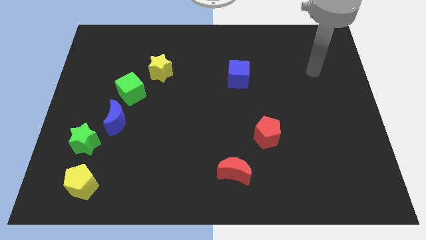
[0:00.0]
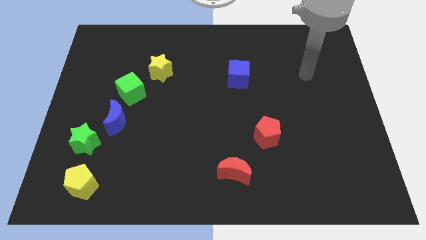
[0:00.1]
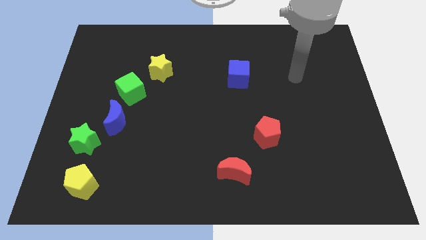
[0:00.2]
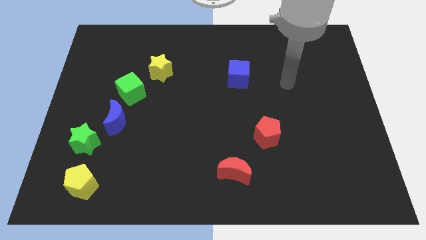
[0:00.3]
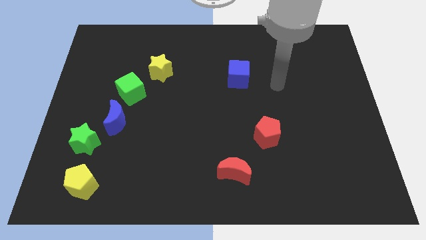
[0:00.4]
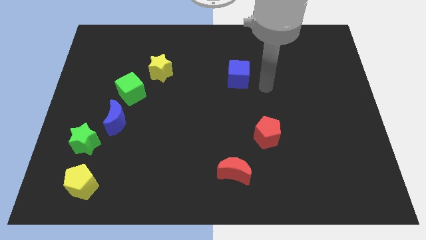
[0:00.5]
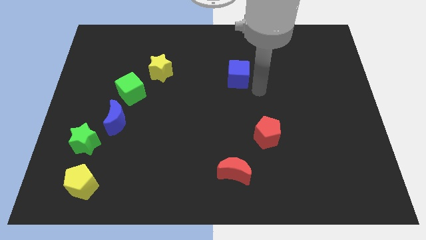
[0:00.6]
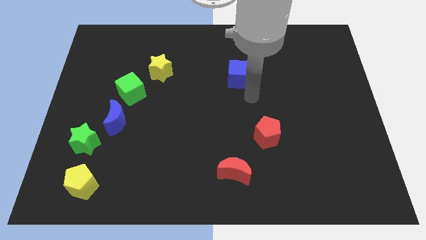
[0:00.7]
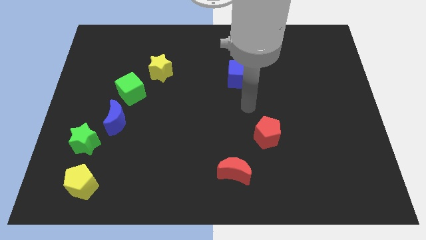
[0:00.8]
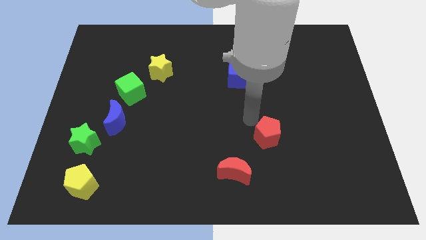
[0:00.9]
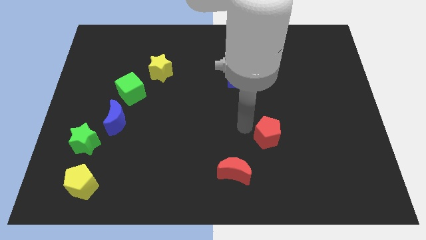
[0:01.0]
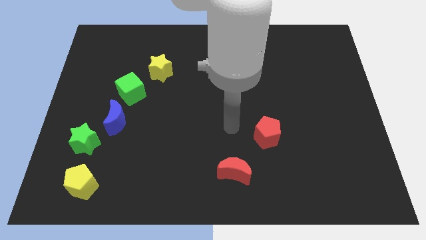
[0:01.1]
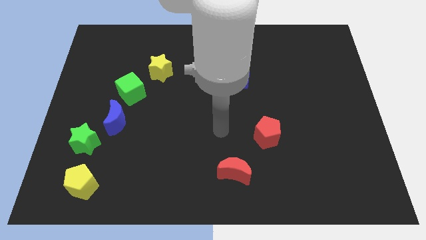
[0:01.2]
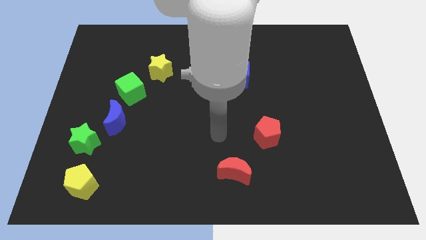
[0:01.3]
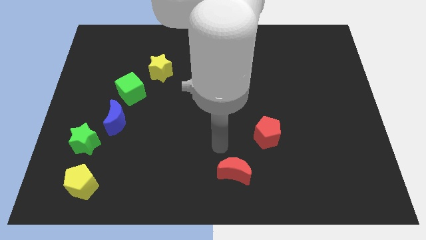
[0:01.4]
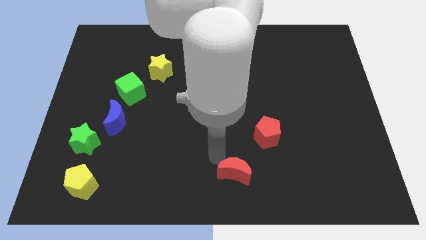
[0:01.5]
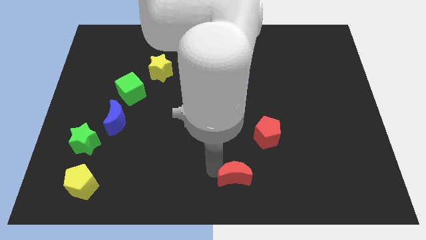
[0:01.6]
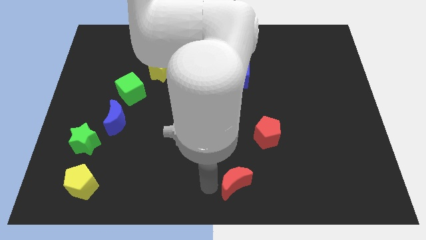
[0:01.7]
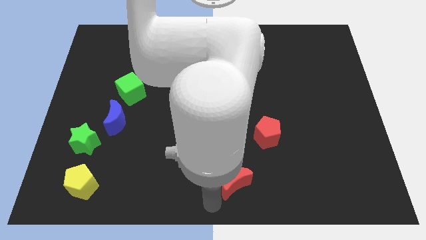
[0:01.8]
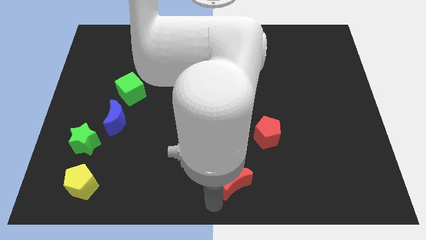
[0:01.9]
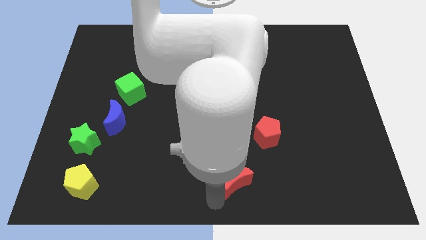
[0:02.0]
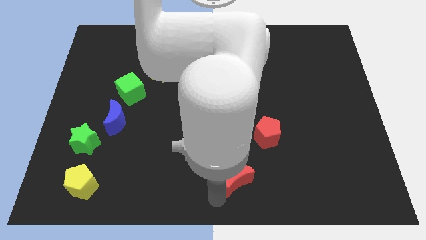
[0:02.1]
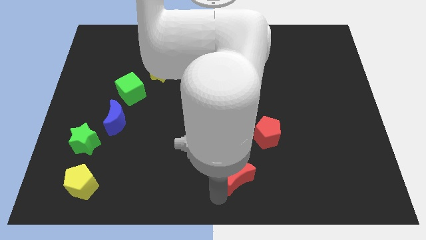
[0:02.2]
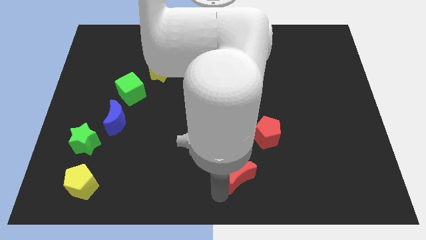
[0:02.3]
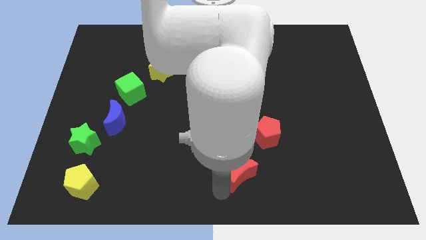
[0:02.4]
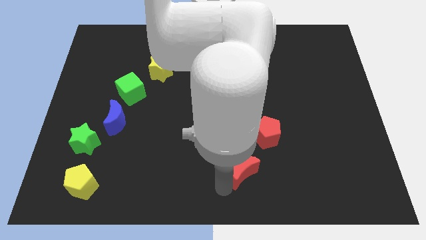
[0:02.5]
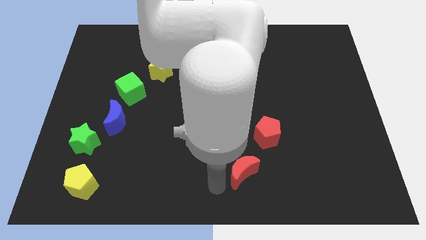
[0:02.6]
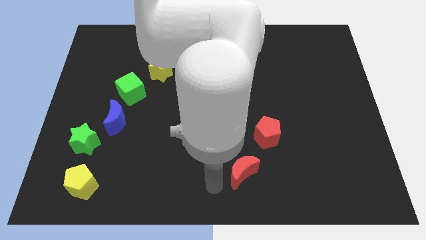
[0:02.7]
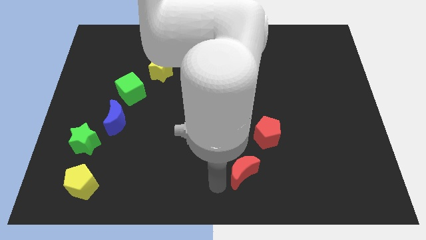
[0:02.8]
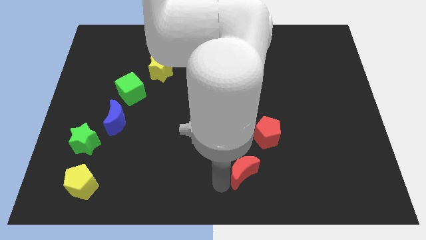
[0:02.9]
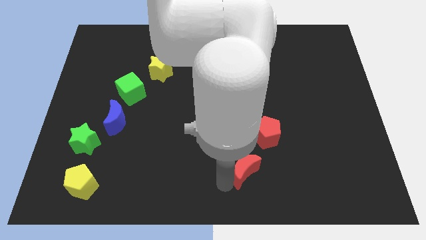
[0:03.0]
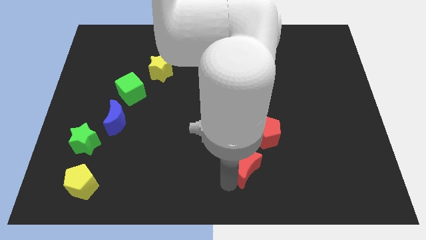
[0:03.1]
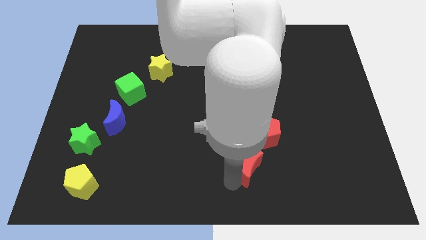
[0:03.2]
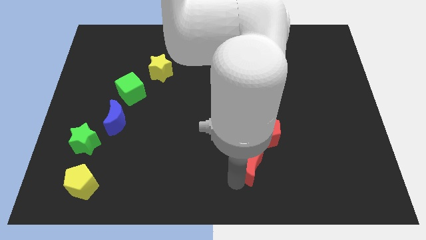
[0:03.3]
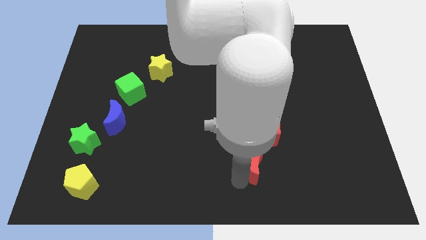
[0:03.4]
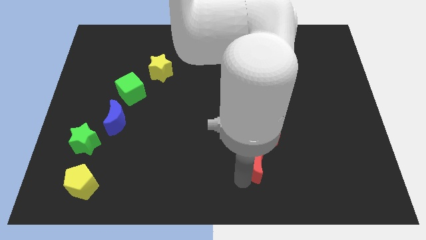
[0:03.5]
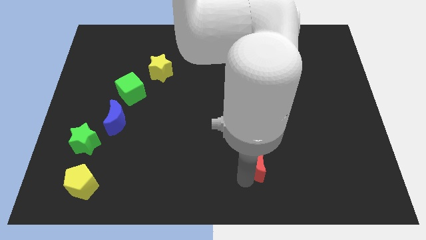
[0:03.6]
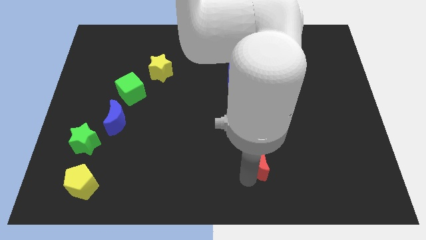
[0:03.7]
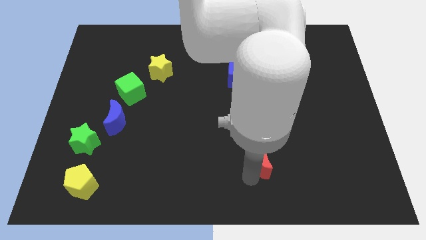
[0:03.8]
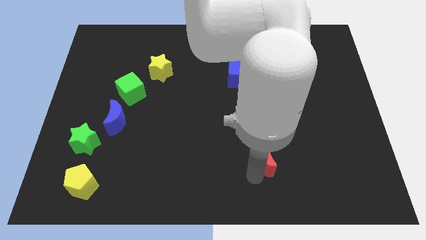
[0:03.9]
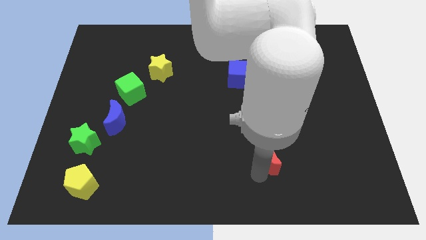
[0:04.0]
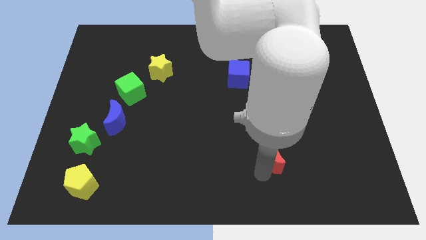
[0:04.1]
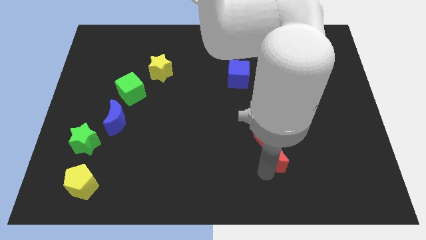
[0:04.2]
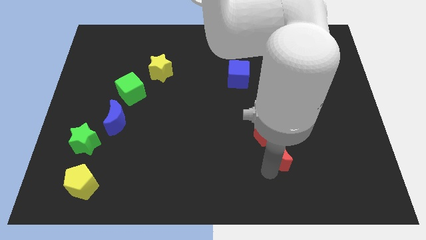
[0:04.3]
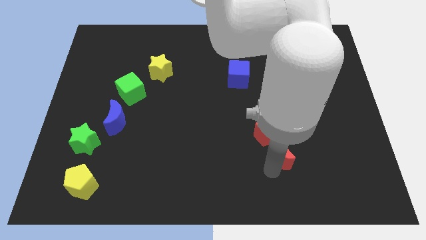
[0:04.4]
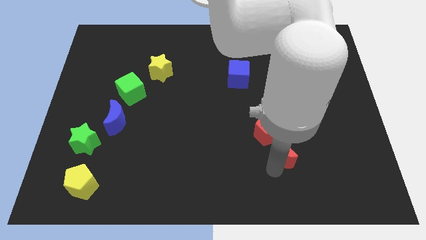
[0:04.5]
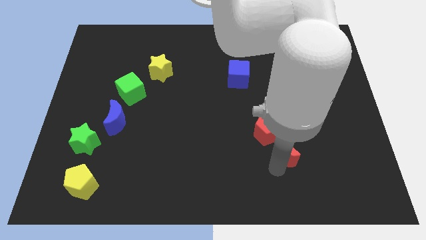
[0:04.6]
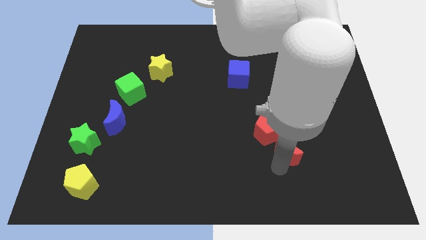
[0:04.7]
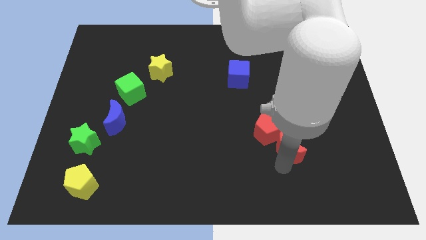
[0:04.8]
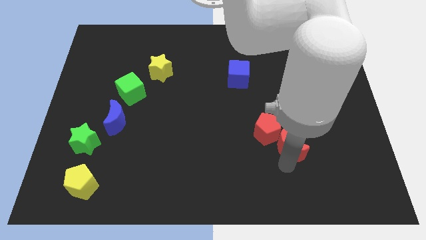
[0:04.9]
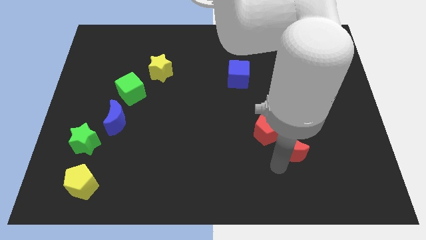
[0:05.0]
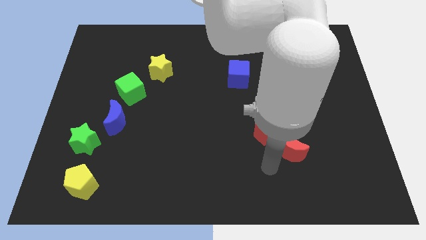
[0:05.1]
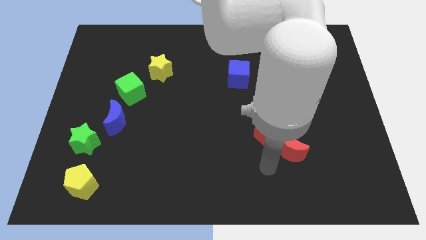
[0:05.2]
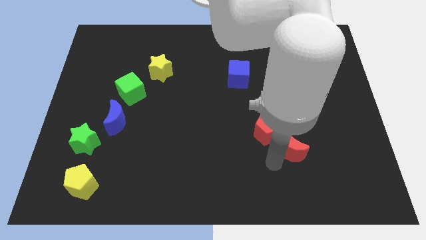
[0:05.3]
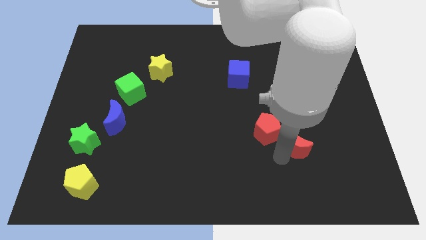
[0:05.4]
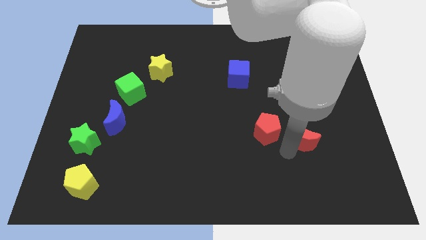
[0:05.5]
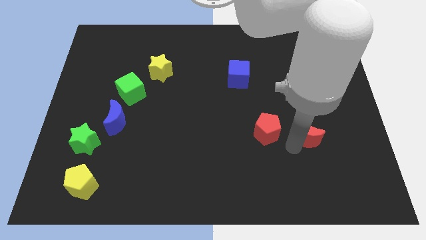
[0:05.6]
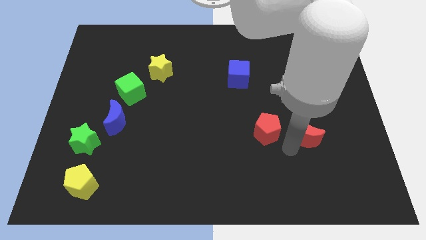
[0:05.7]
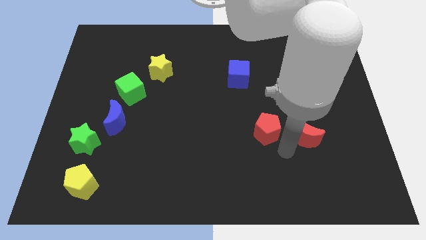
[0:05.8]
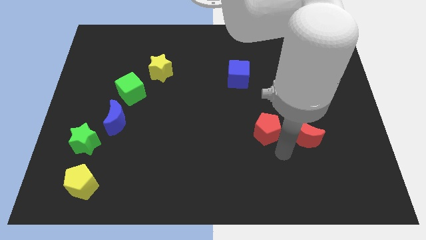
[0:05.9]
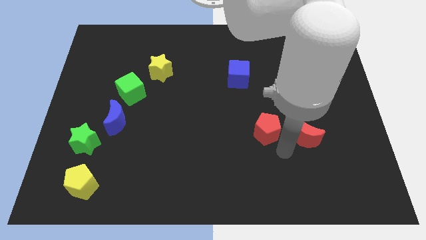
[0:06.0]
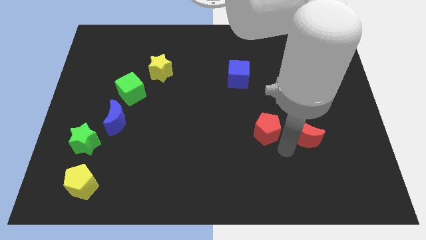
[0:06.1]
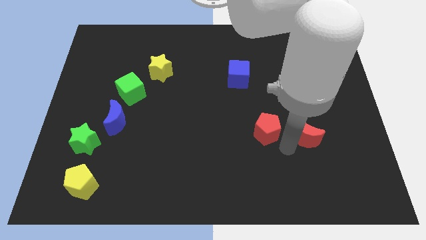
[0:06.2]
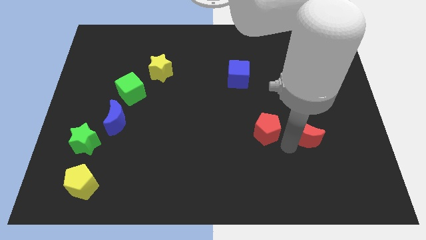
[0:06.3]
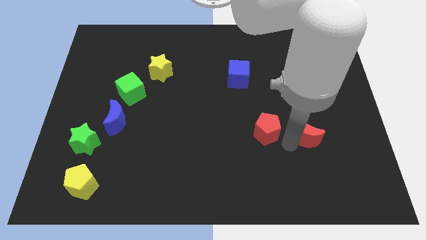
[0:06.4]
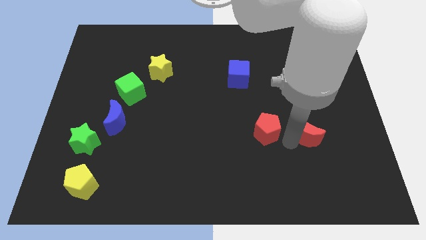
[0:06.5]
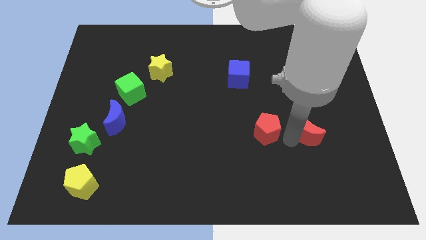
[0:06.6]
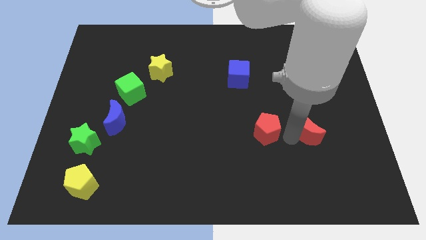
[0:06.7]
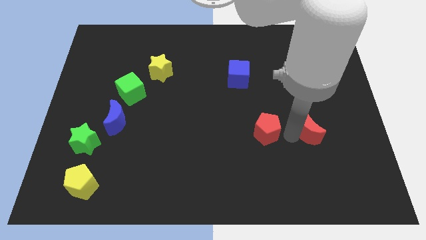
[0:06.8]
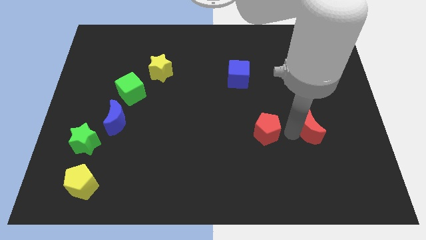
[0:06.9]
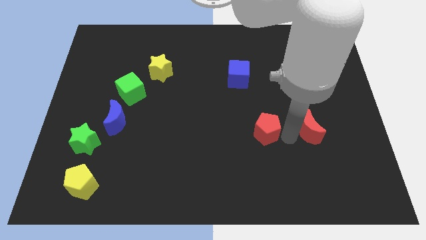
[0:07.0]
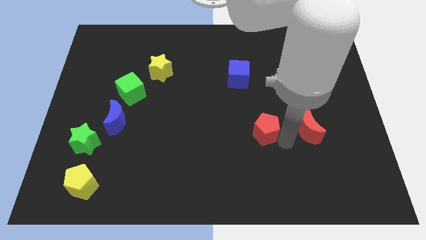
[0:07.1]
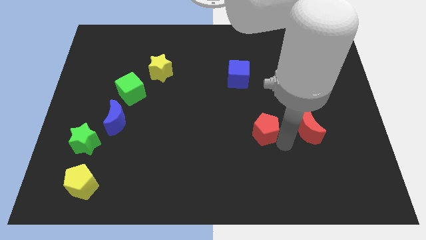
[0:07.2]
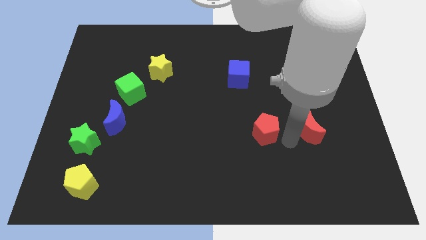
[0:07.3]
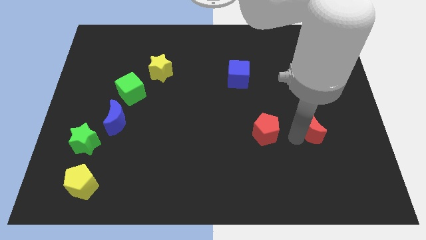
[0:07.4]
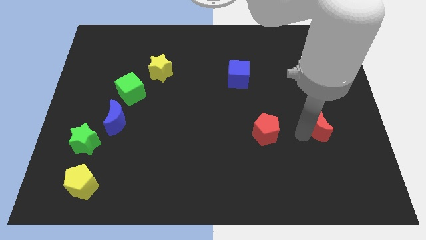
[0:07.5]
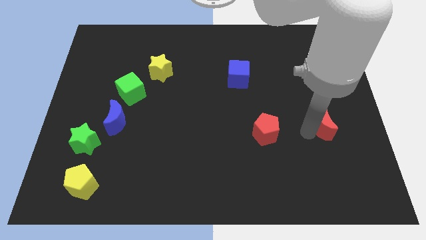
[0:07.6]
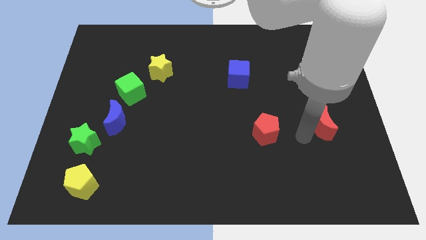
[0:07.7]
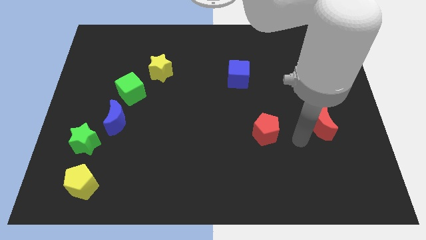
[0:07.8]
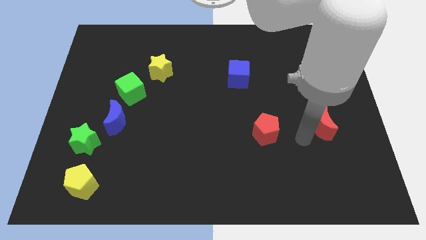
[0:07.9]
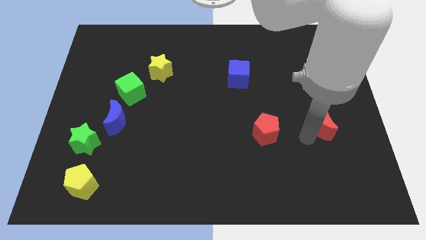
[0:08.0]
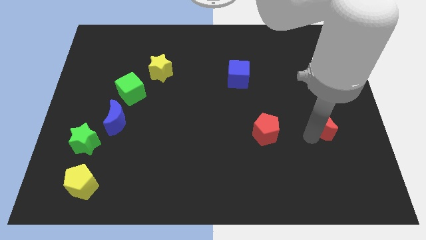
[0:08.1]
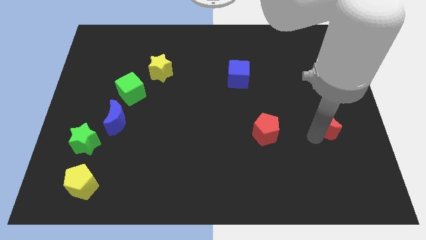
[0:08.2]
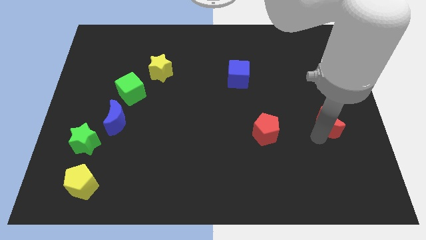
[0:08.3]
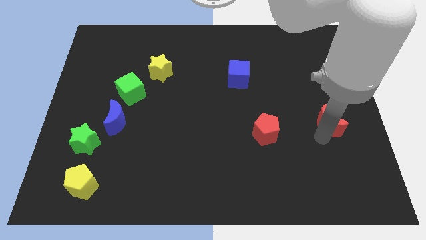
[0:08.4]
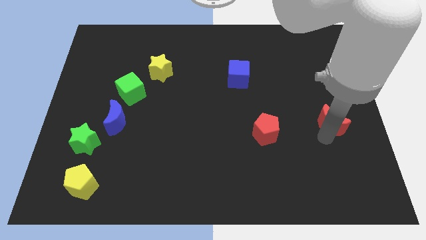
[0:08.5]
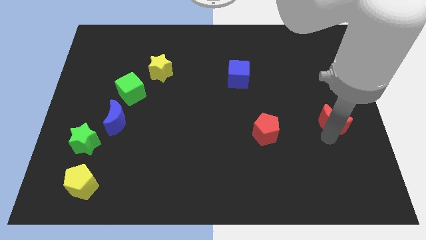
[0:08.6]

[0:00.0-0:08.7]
put the red moon to the right side
